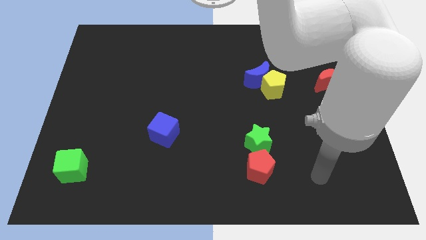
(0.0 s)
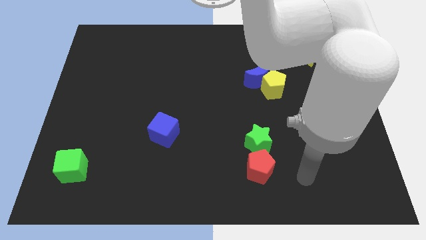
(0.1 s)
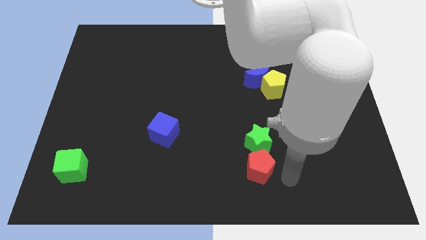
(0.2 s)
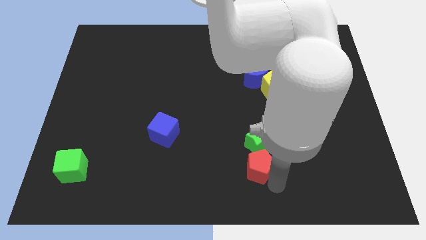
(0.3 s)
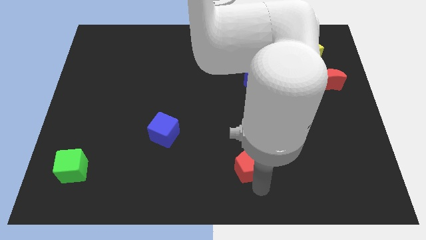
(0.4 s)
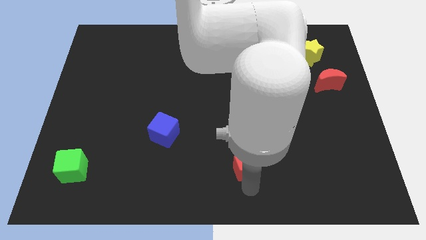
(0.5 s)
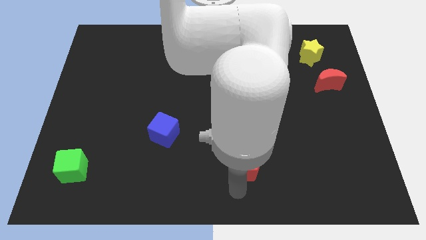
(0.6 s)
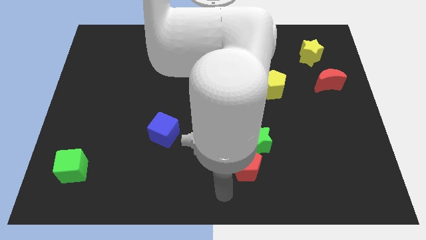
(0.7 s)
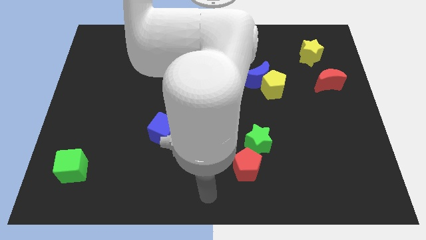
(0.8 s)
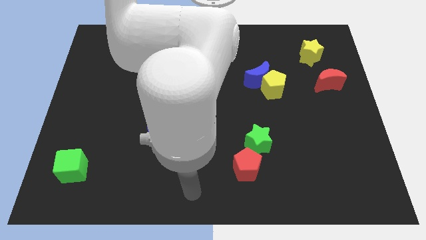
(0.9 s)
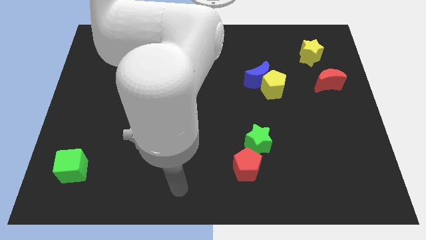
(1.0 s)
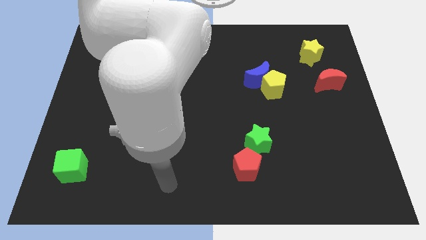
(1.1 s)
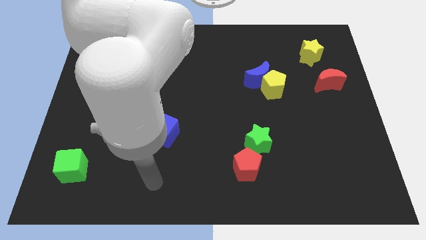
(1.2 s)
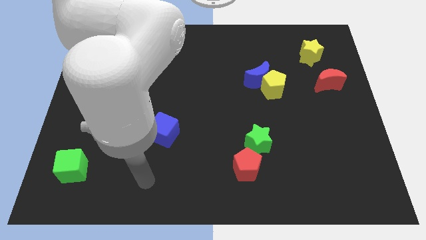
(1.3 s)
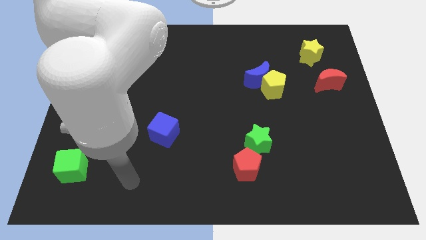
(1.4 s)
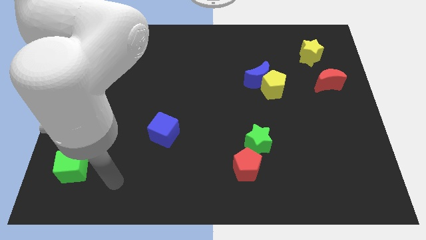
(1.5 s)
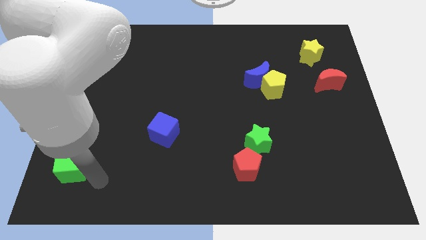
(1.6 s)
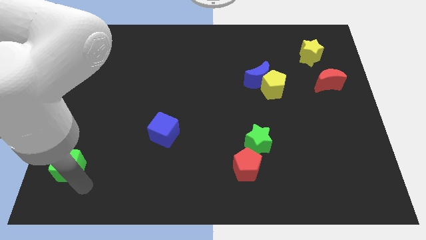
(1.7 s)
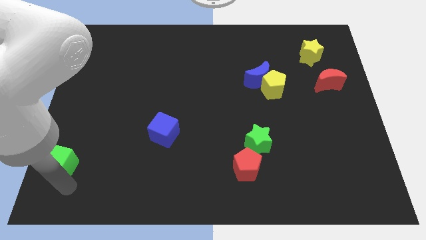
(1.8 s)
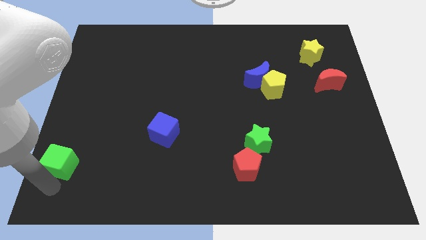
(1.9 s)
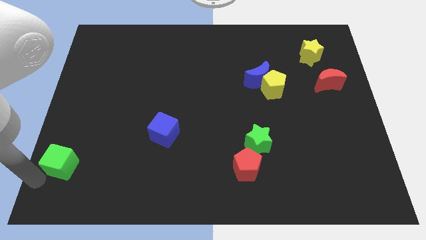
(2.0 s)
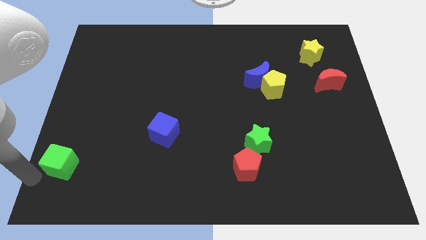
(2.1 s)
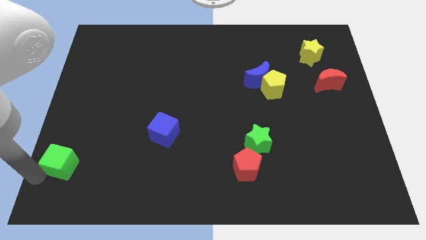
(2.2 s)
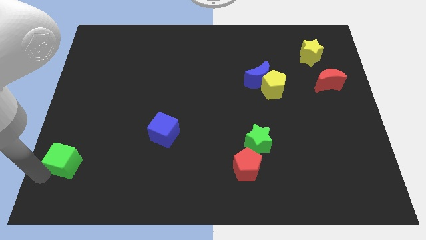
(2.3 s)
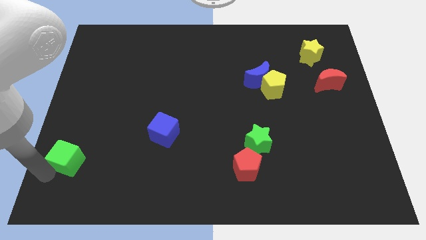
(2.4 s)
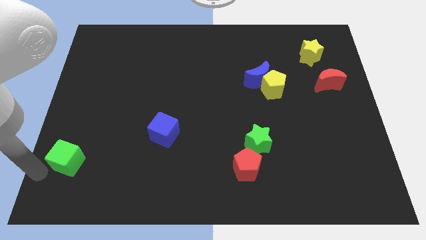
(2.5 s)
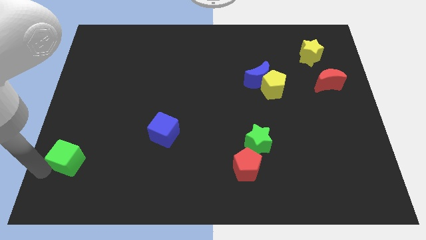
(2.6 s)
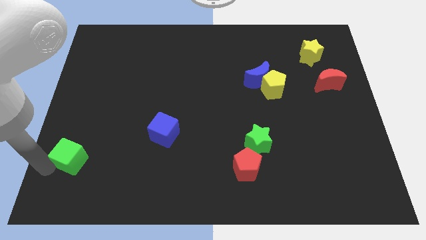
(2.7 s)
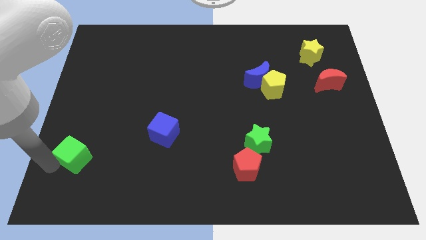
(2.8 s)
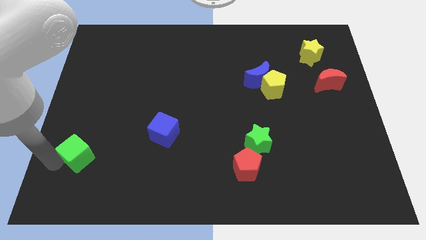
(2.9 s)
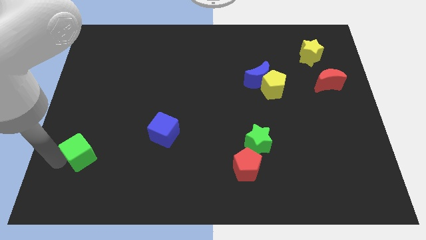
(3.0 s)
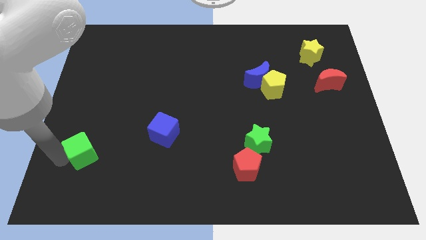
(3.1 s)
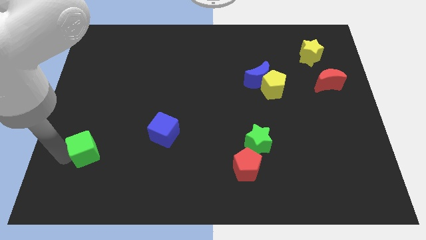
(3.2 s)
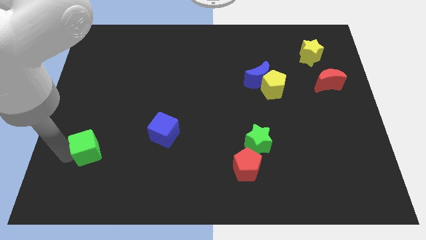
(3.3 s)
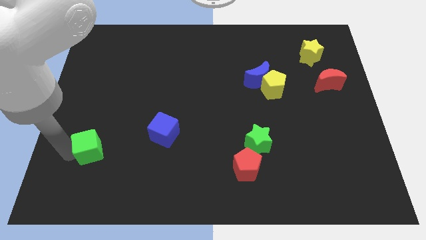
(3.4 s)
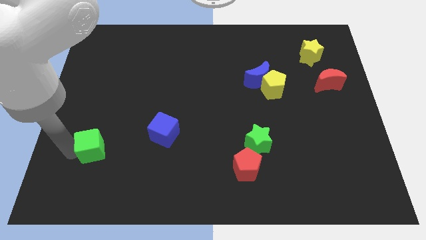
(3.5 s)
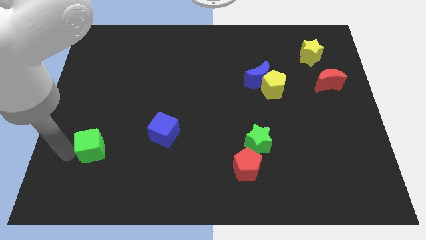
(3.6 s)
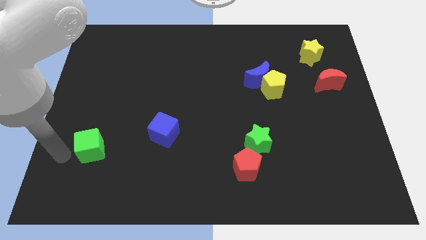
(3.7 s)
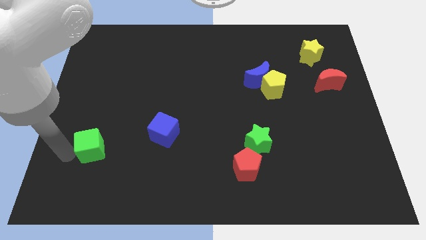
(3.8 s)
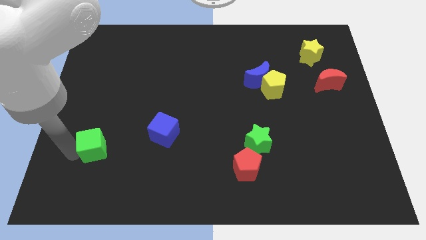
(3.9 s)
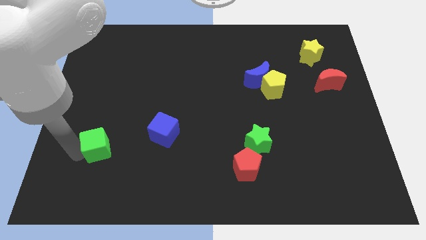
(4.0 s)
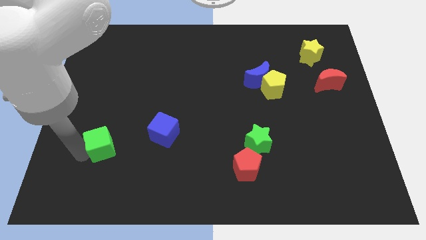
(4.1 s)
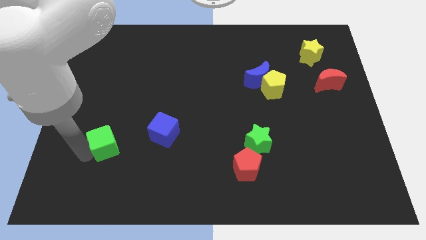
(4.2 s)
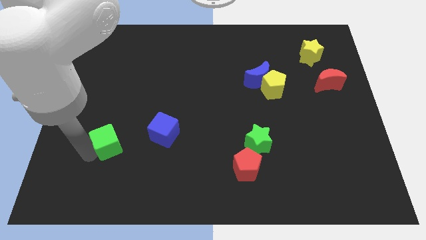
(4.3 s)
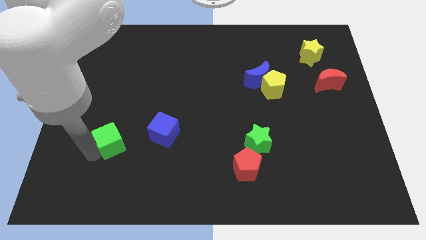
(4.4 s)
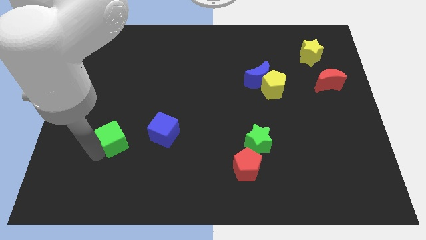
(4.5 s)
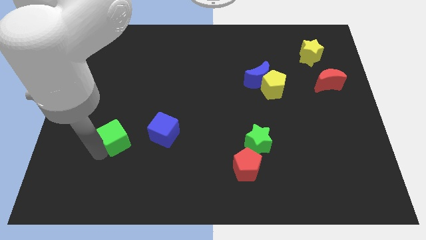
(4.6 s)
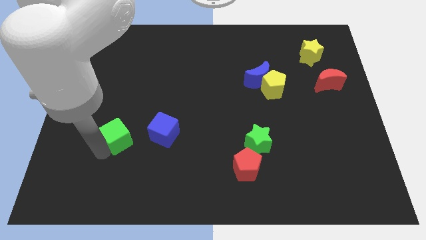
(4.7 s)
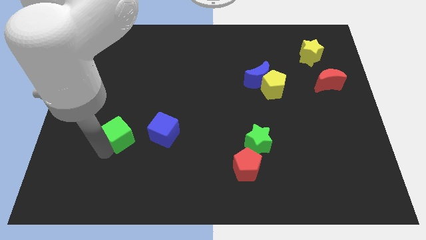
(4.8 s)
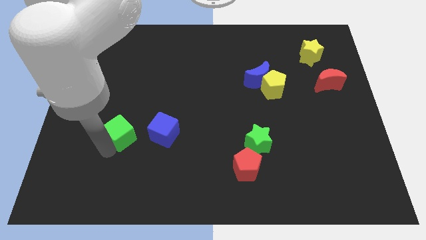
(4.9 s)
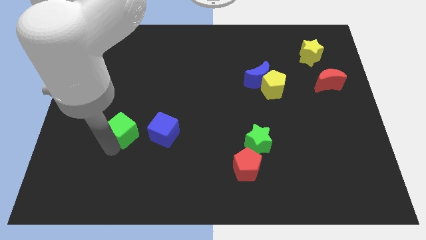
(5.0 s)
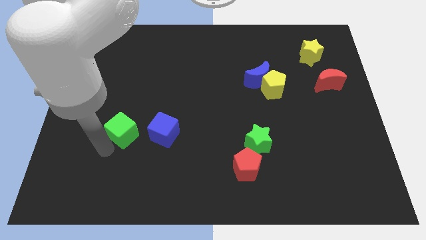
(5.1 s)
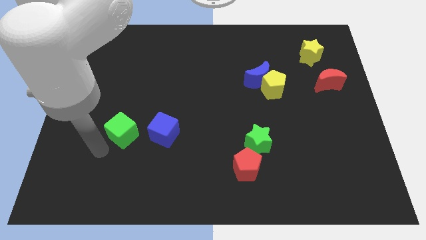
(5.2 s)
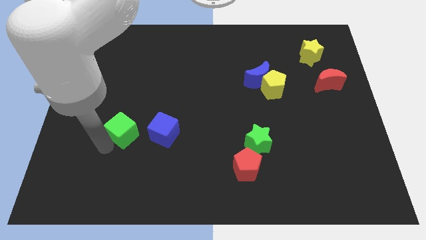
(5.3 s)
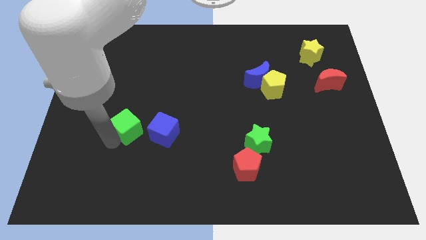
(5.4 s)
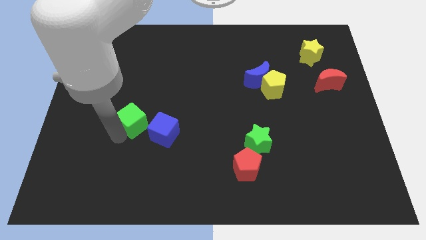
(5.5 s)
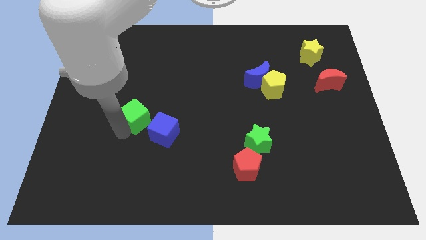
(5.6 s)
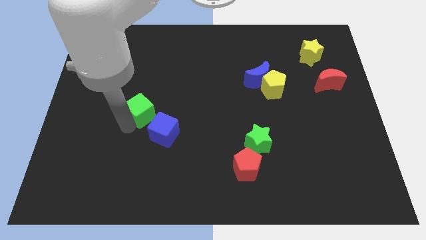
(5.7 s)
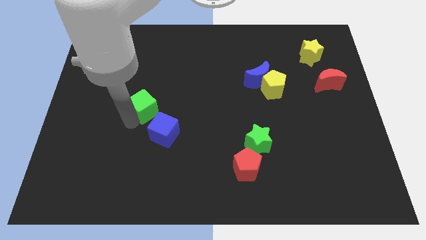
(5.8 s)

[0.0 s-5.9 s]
move the green cube upwards and right diagonally

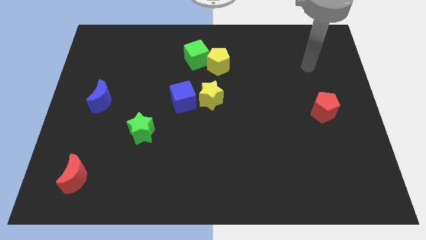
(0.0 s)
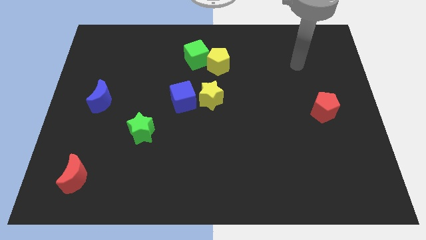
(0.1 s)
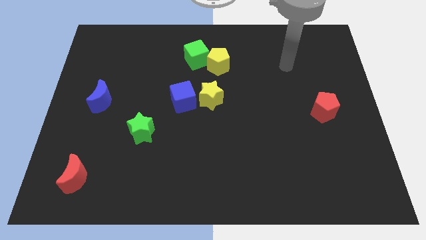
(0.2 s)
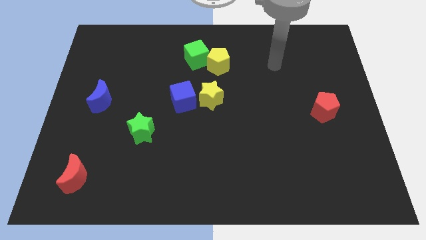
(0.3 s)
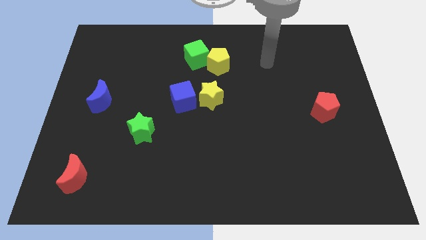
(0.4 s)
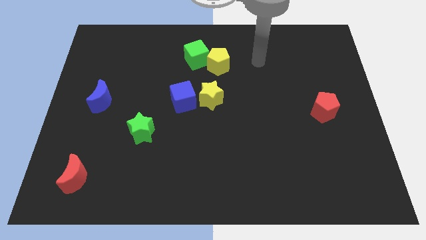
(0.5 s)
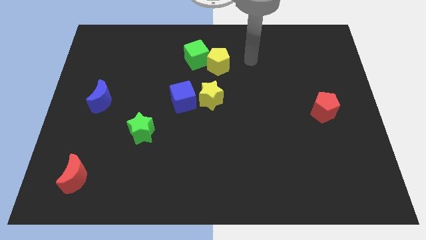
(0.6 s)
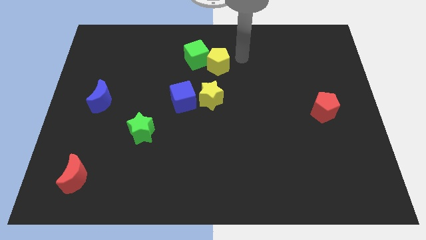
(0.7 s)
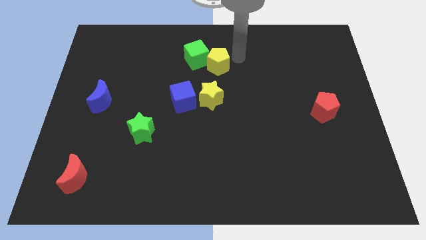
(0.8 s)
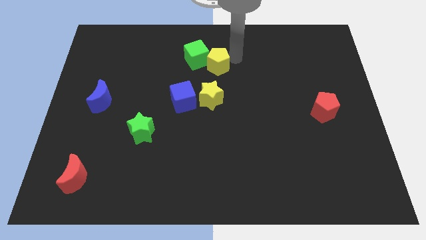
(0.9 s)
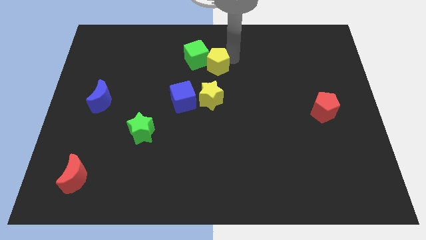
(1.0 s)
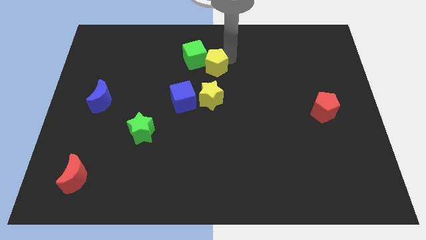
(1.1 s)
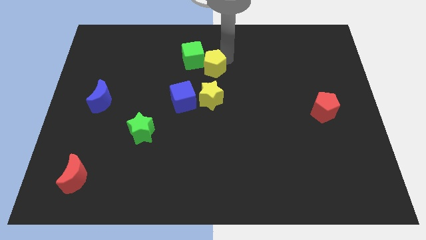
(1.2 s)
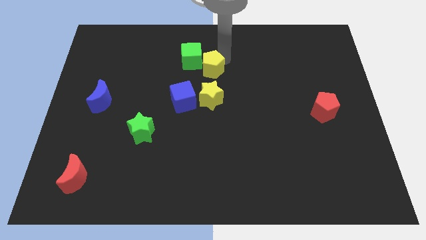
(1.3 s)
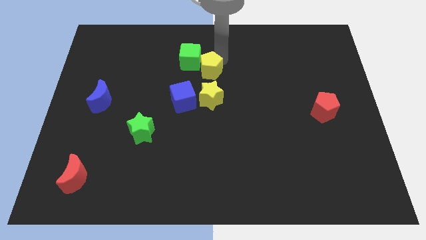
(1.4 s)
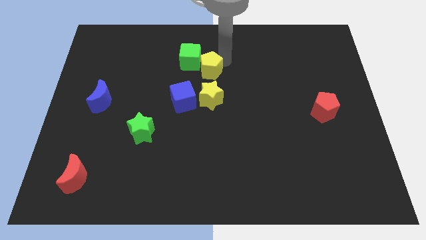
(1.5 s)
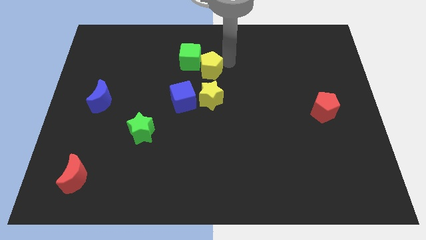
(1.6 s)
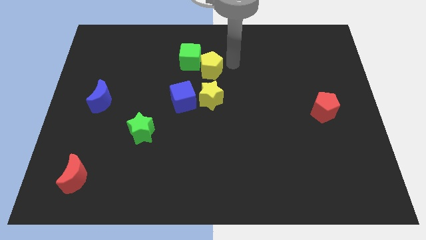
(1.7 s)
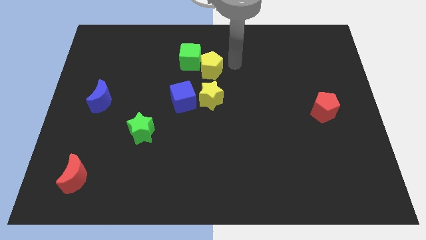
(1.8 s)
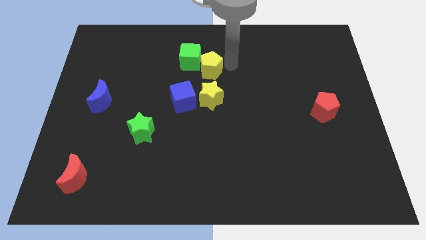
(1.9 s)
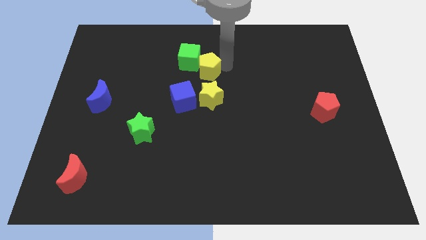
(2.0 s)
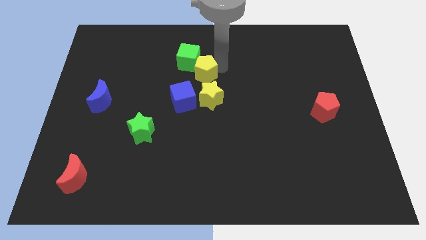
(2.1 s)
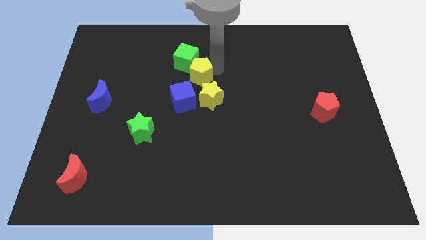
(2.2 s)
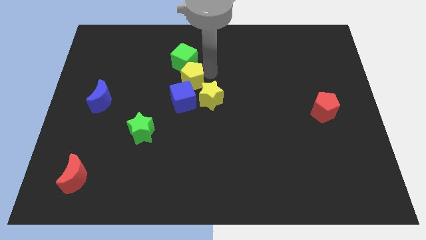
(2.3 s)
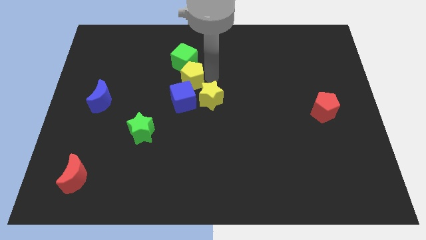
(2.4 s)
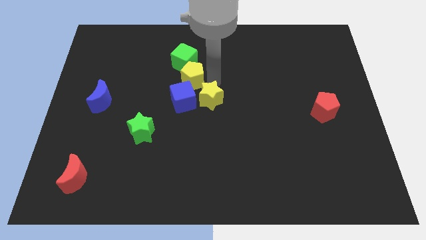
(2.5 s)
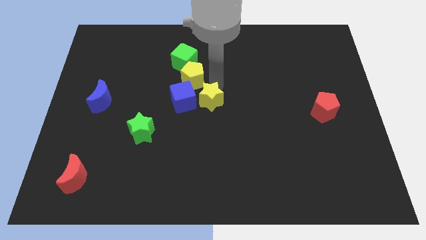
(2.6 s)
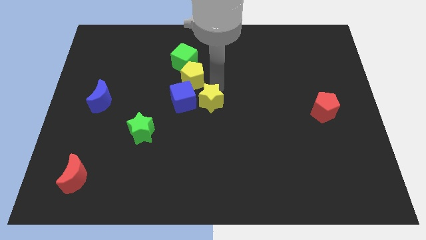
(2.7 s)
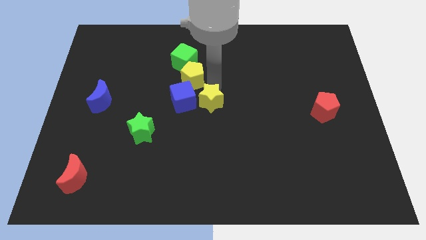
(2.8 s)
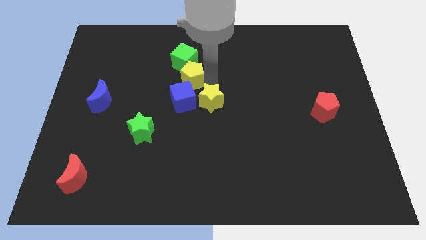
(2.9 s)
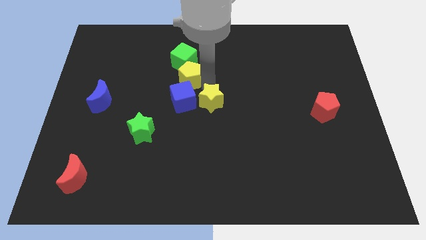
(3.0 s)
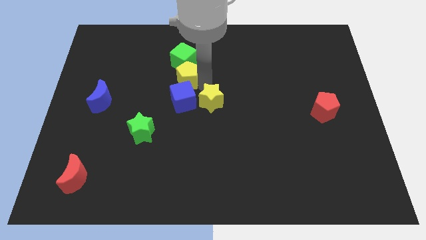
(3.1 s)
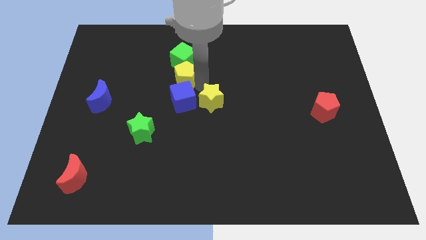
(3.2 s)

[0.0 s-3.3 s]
slightly move the yellow pentagon left
